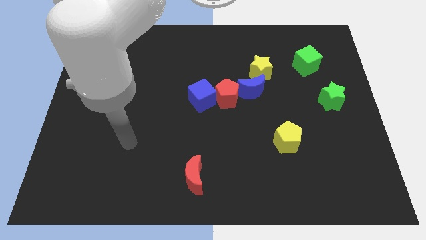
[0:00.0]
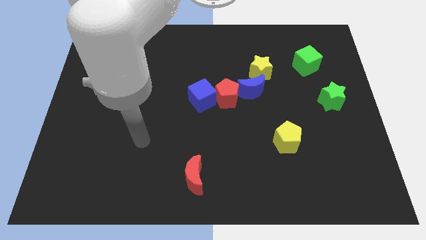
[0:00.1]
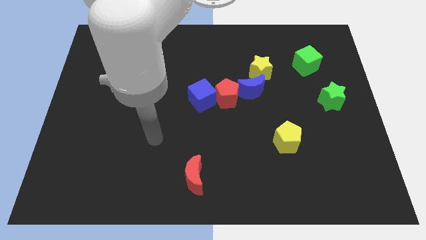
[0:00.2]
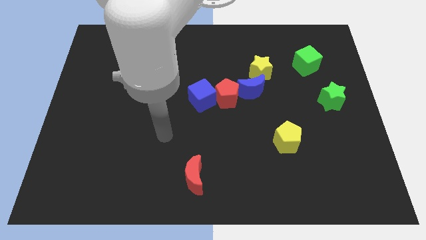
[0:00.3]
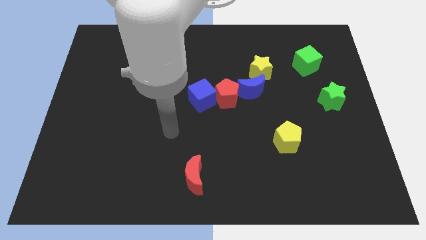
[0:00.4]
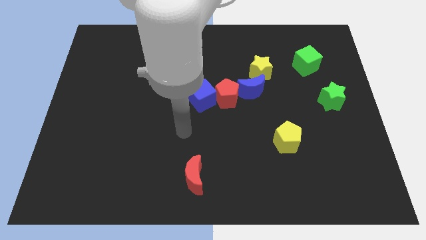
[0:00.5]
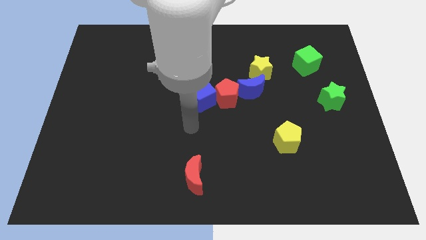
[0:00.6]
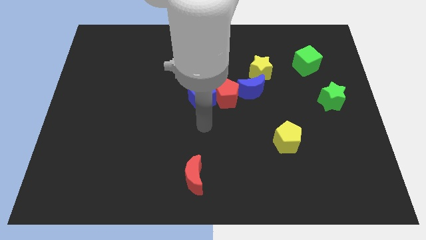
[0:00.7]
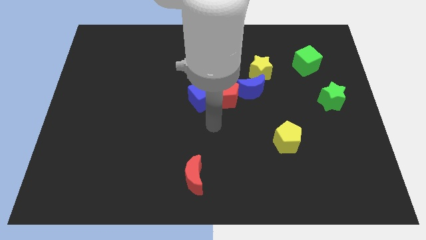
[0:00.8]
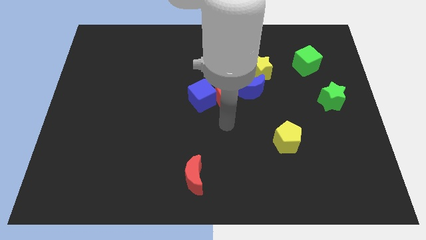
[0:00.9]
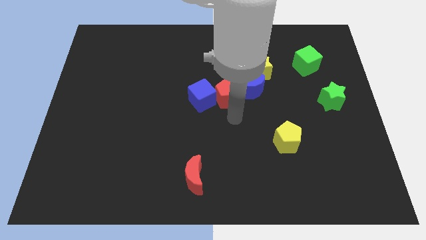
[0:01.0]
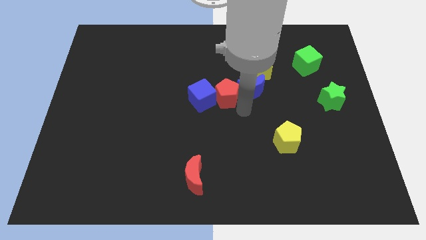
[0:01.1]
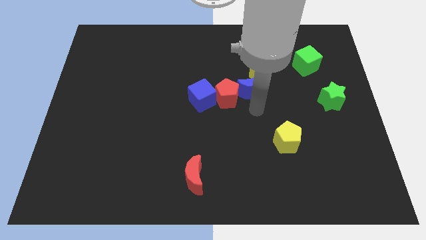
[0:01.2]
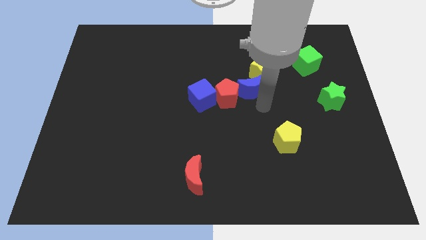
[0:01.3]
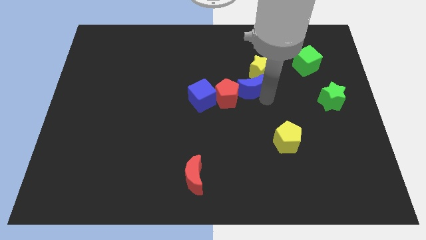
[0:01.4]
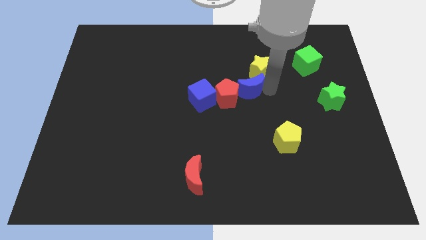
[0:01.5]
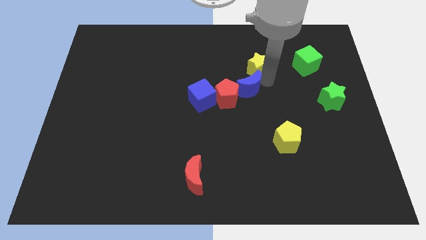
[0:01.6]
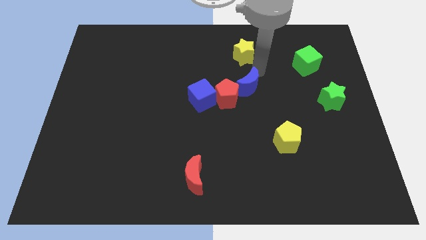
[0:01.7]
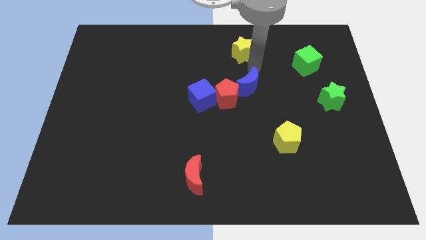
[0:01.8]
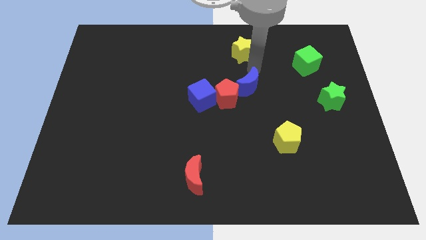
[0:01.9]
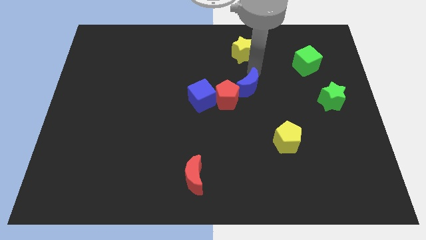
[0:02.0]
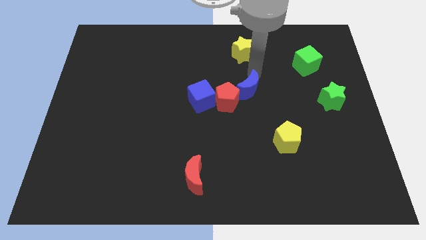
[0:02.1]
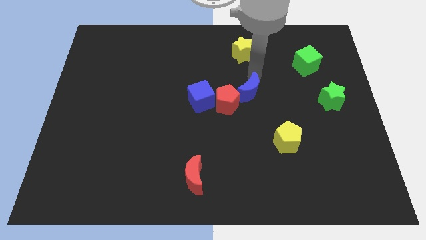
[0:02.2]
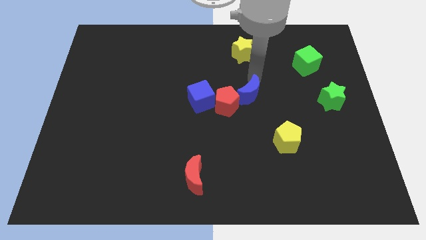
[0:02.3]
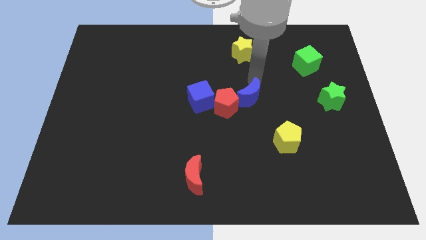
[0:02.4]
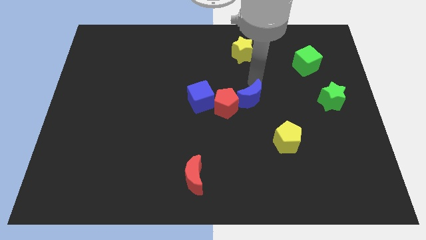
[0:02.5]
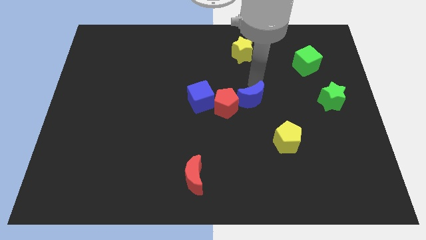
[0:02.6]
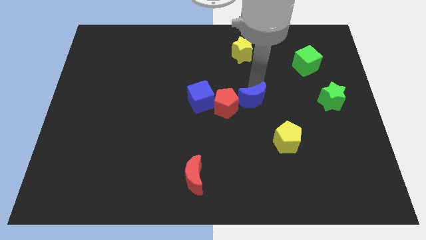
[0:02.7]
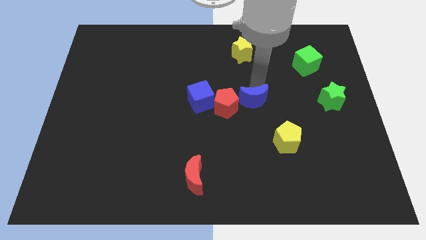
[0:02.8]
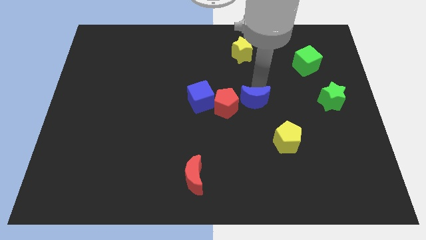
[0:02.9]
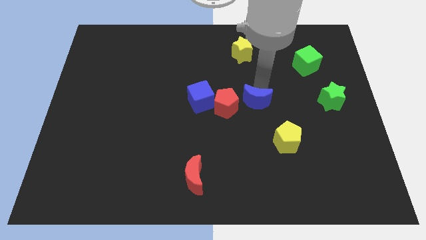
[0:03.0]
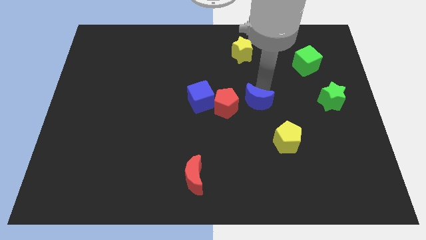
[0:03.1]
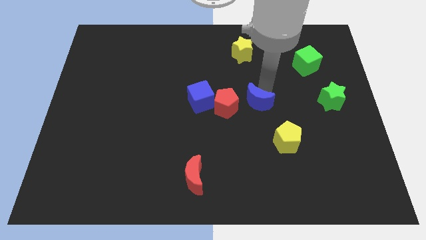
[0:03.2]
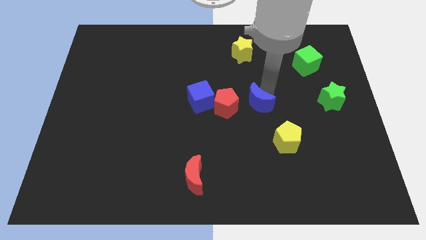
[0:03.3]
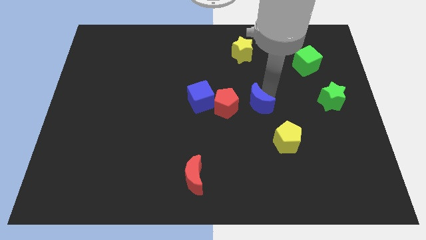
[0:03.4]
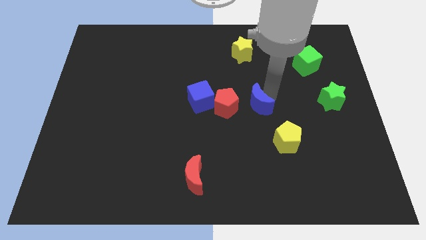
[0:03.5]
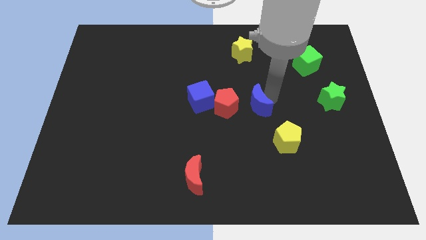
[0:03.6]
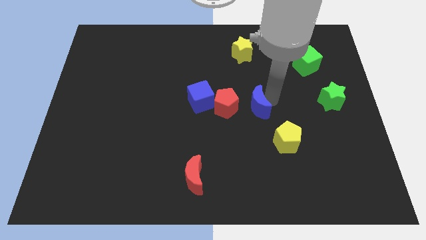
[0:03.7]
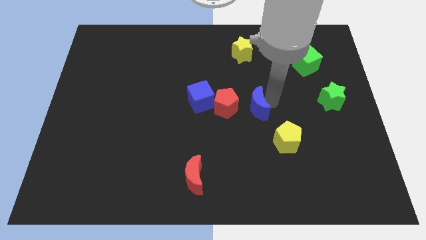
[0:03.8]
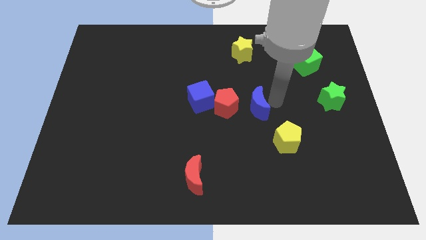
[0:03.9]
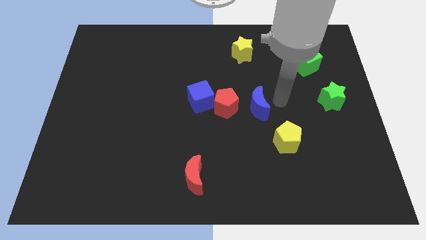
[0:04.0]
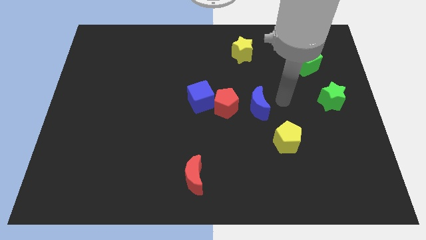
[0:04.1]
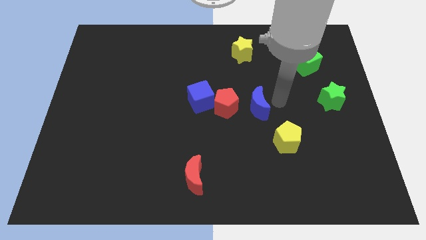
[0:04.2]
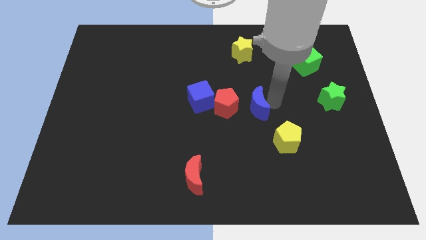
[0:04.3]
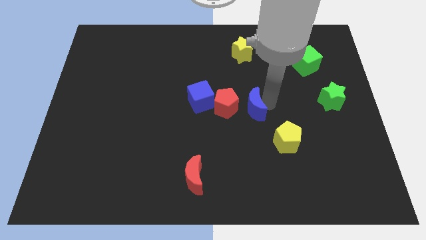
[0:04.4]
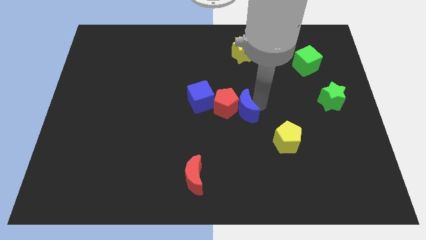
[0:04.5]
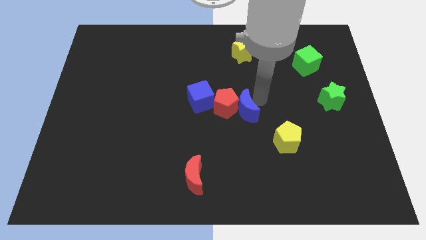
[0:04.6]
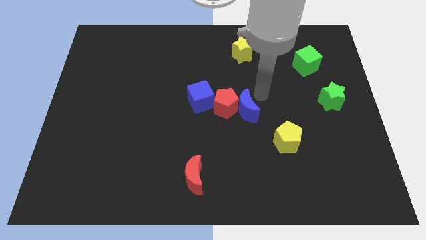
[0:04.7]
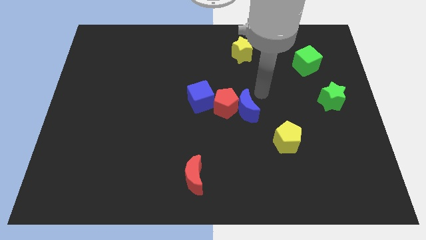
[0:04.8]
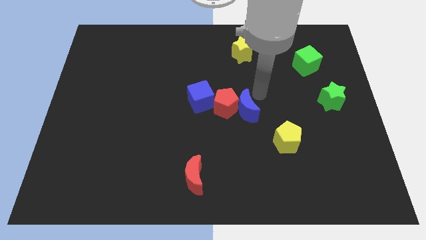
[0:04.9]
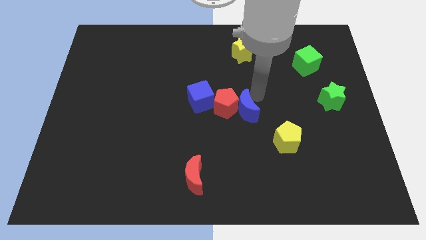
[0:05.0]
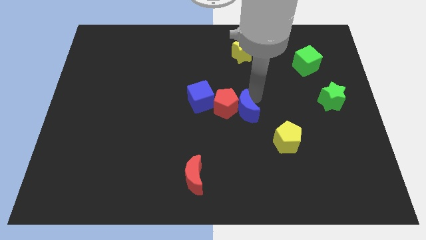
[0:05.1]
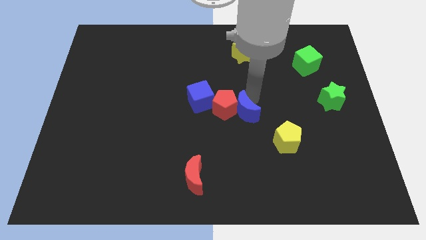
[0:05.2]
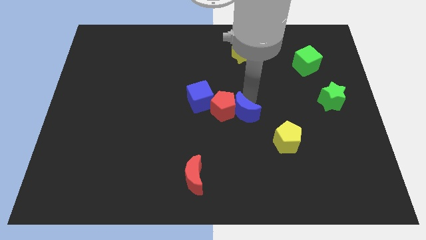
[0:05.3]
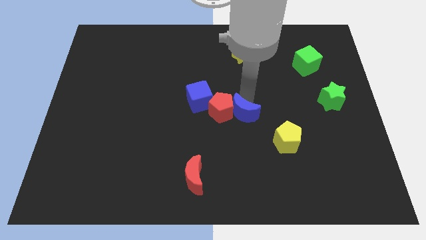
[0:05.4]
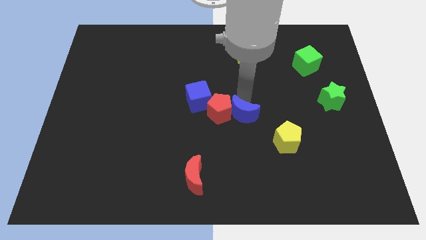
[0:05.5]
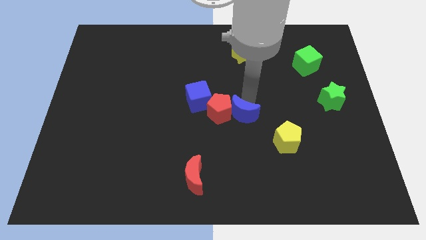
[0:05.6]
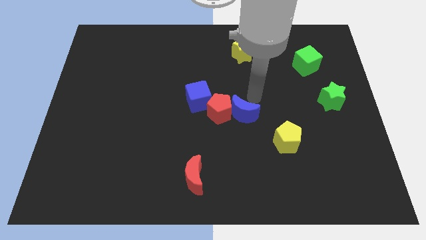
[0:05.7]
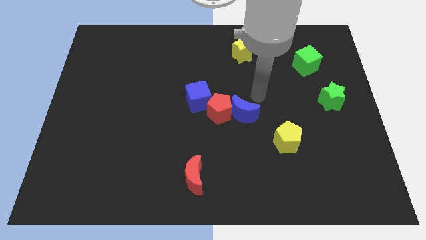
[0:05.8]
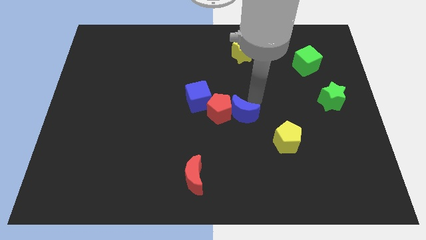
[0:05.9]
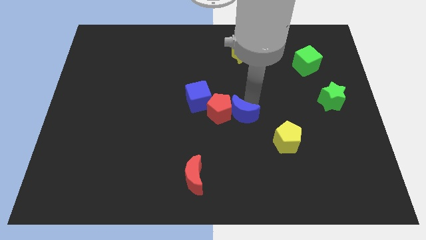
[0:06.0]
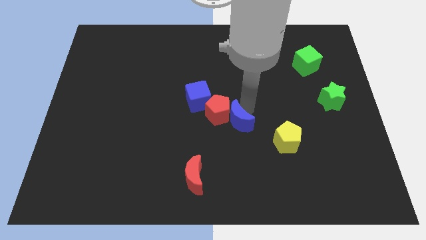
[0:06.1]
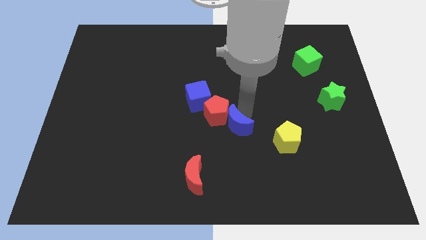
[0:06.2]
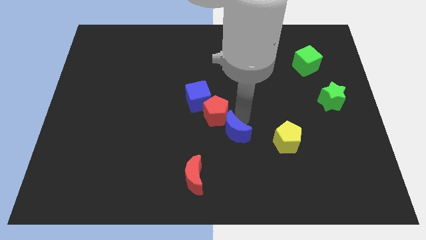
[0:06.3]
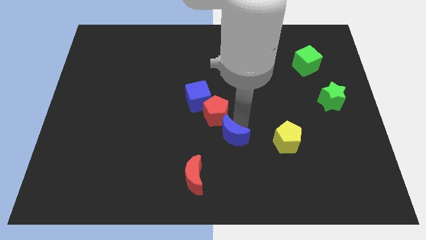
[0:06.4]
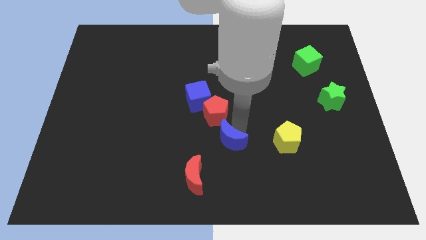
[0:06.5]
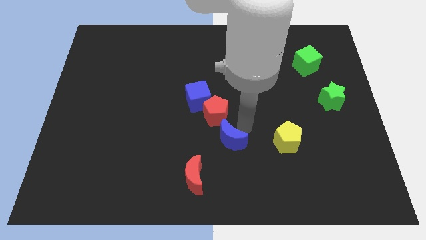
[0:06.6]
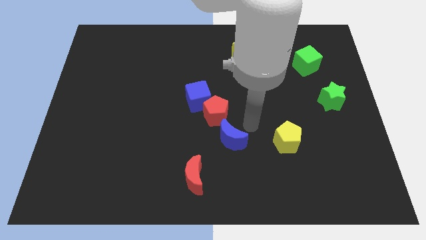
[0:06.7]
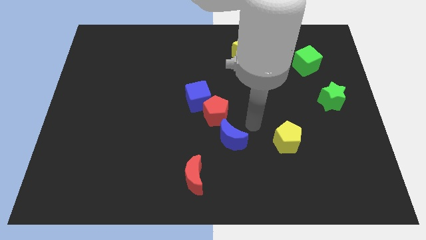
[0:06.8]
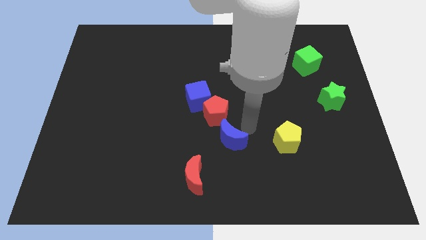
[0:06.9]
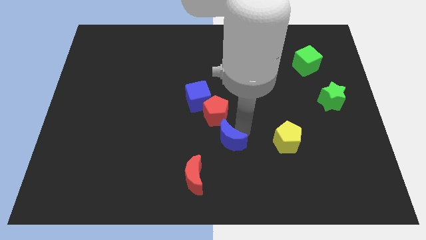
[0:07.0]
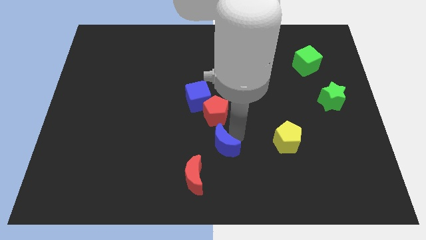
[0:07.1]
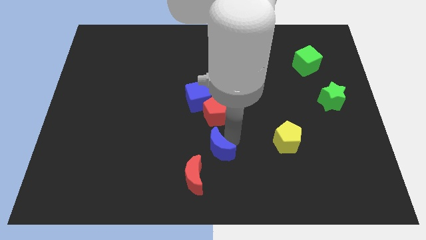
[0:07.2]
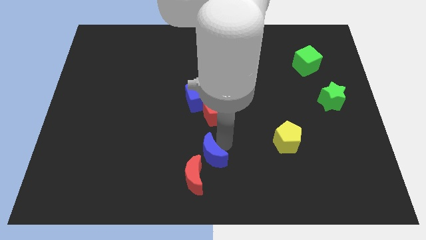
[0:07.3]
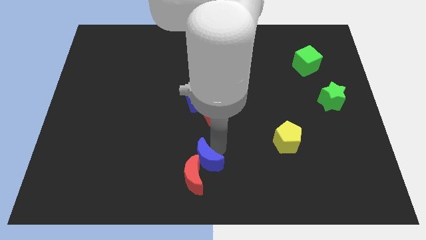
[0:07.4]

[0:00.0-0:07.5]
move the blue moon next to the red moon

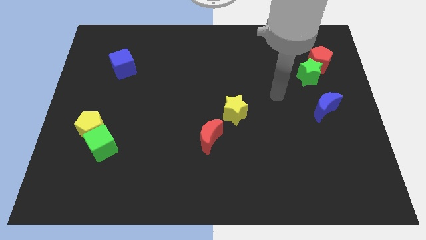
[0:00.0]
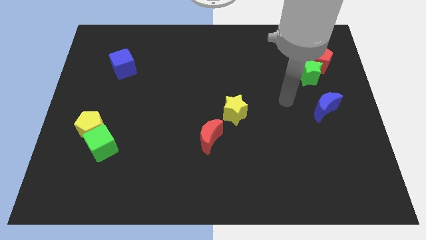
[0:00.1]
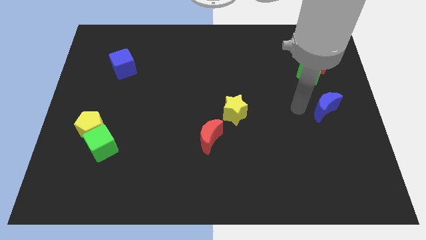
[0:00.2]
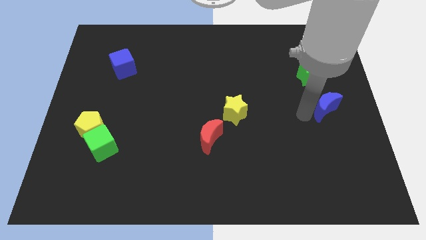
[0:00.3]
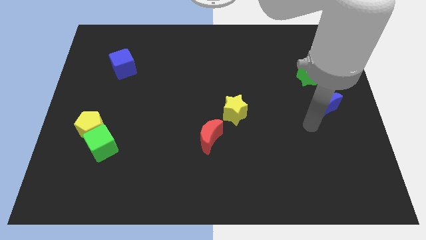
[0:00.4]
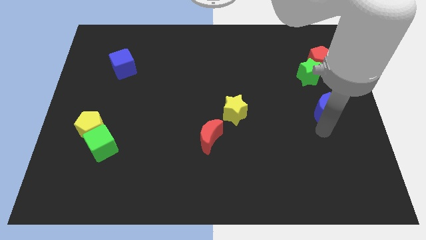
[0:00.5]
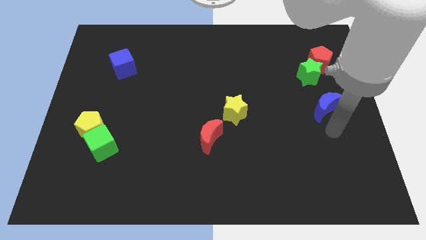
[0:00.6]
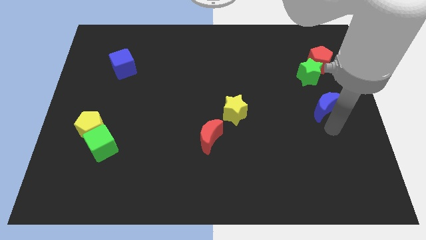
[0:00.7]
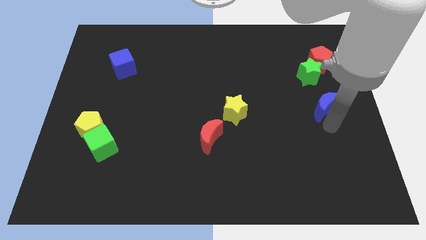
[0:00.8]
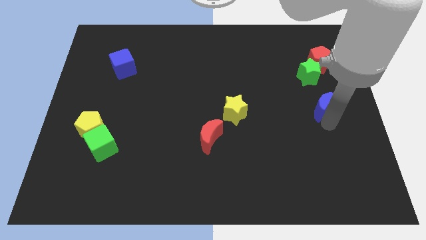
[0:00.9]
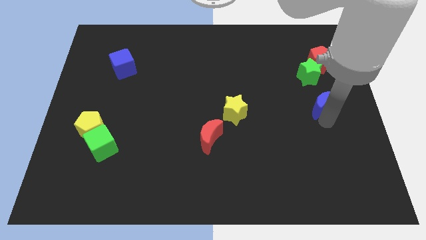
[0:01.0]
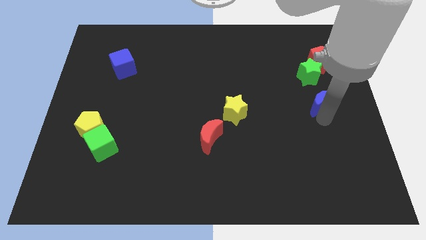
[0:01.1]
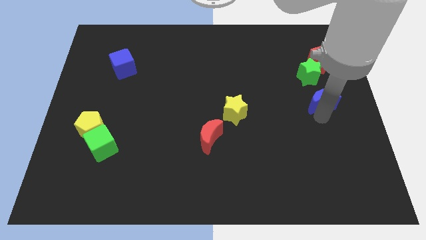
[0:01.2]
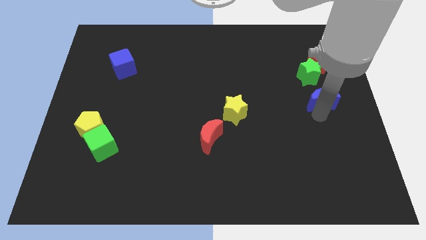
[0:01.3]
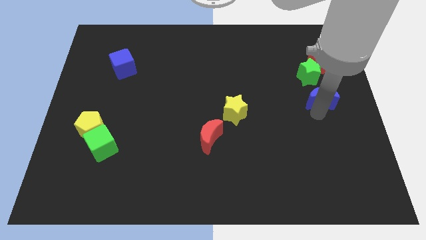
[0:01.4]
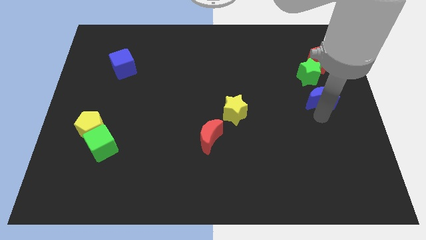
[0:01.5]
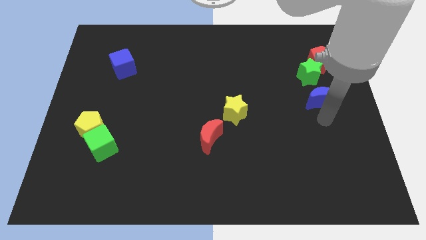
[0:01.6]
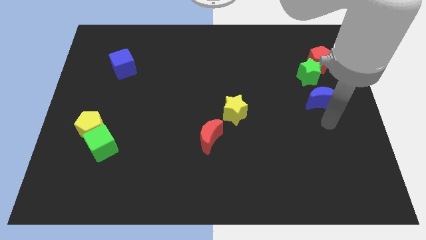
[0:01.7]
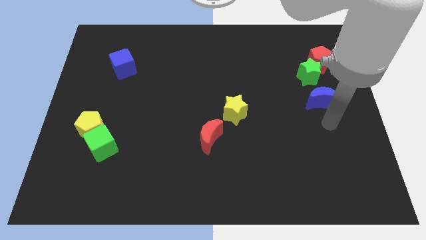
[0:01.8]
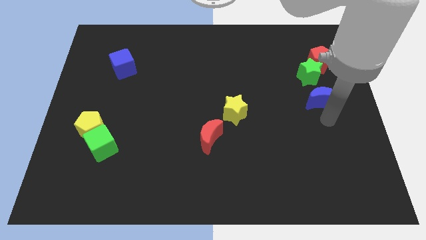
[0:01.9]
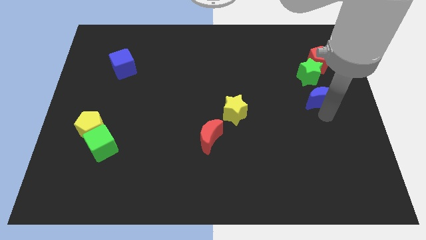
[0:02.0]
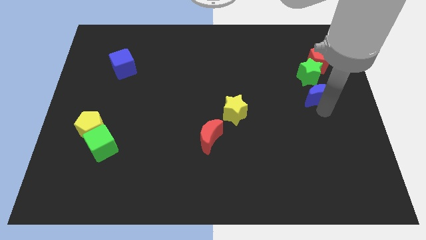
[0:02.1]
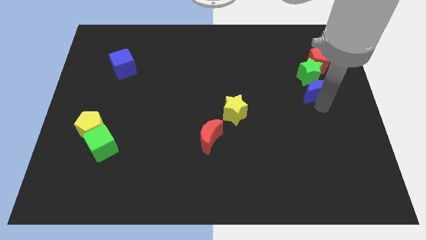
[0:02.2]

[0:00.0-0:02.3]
slide the blue moon to the green star
